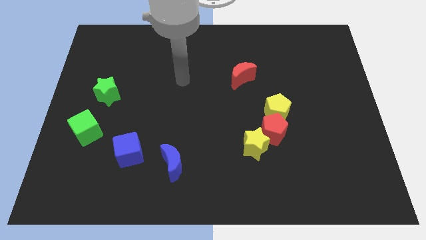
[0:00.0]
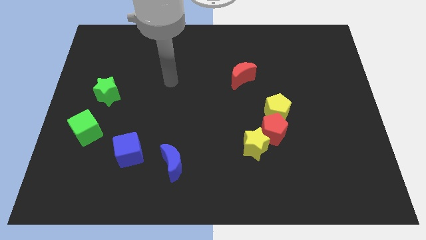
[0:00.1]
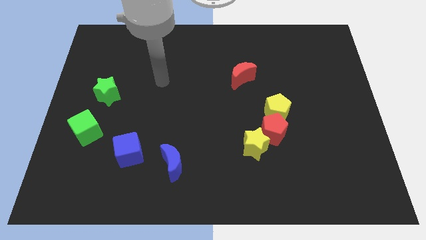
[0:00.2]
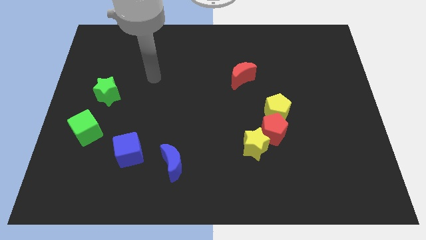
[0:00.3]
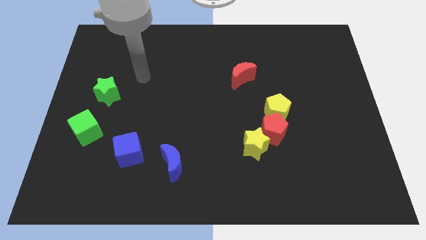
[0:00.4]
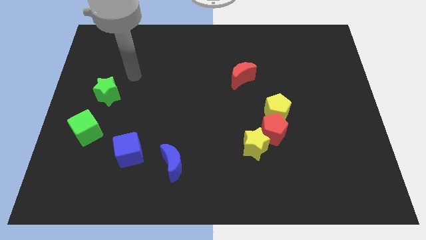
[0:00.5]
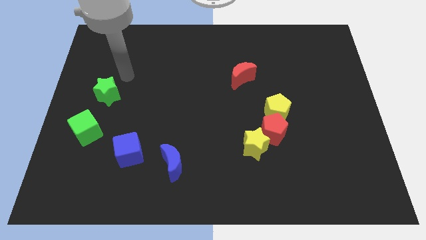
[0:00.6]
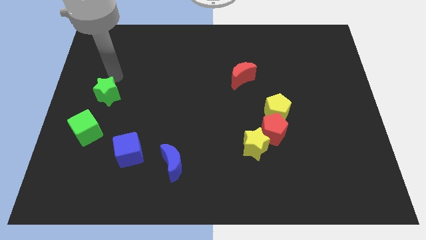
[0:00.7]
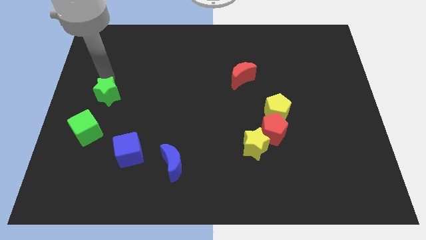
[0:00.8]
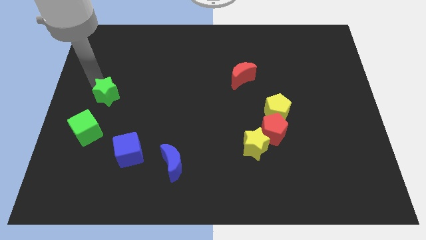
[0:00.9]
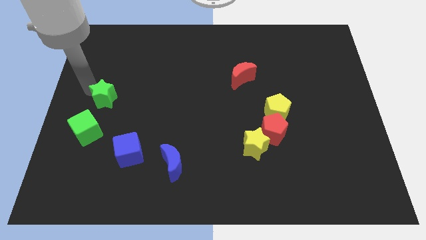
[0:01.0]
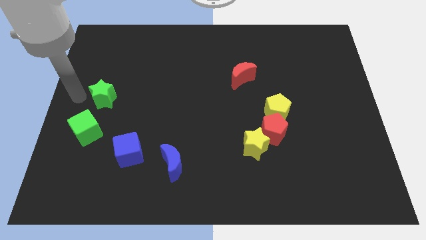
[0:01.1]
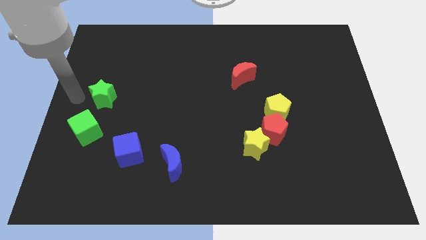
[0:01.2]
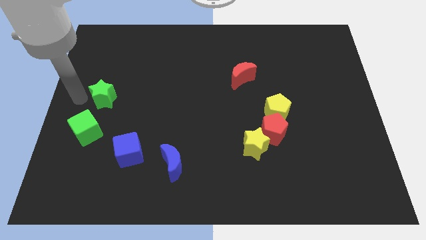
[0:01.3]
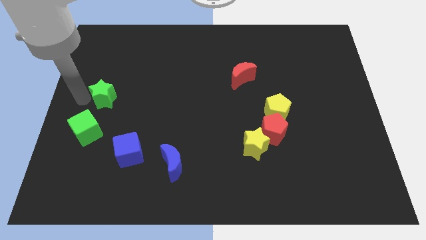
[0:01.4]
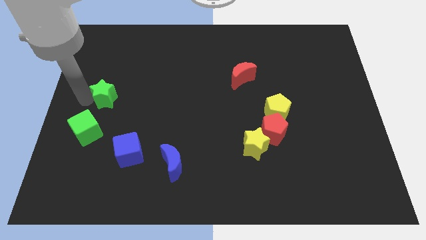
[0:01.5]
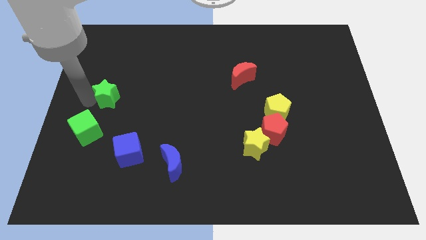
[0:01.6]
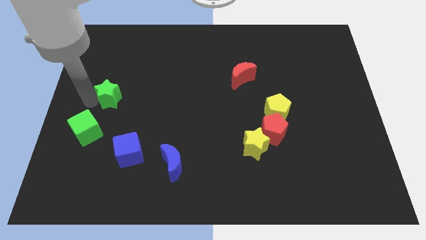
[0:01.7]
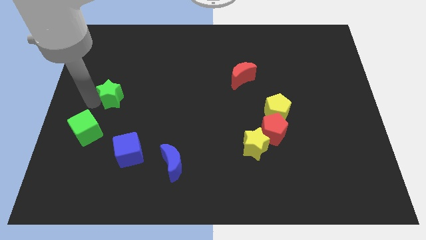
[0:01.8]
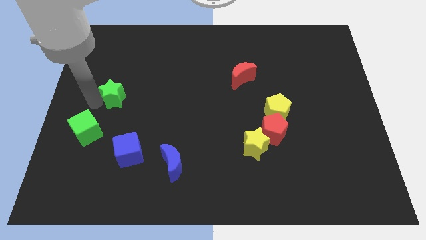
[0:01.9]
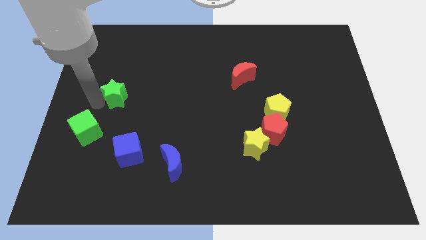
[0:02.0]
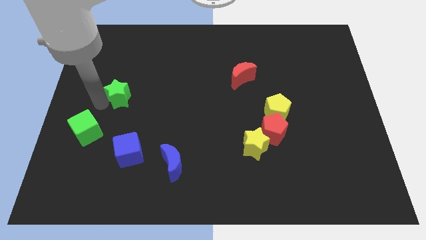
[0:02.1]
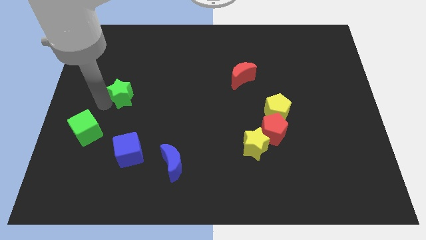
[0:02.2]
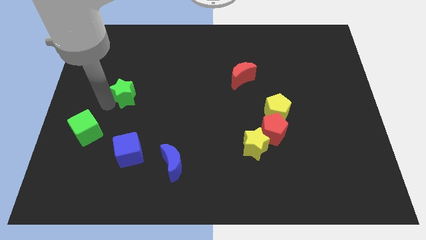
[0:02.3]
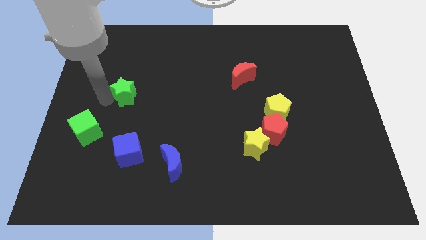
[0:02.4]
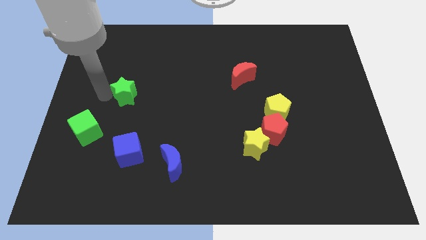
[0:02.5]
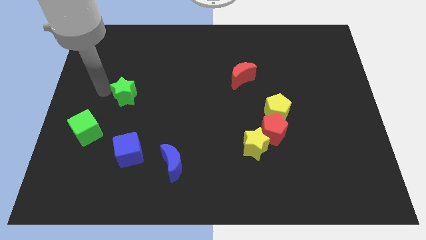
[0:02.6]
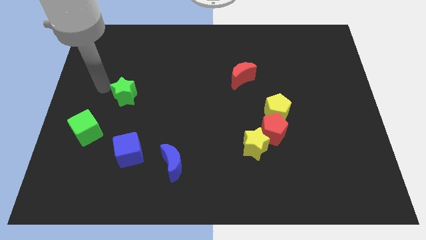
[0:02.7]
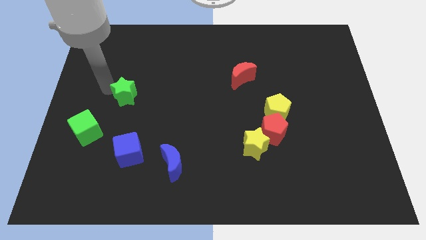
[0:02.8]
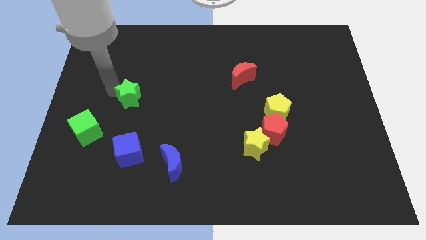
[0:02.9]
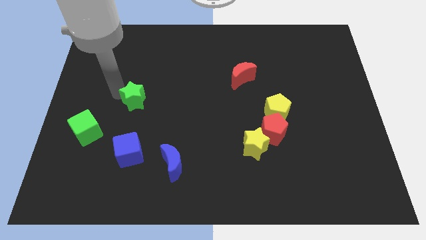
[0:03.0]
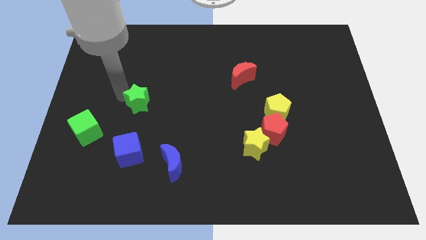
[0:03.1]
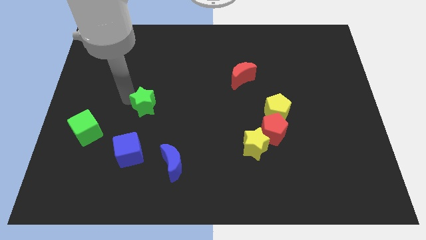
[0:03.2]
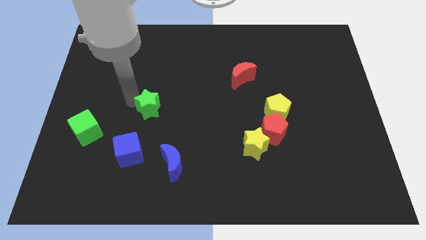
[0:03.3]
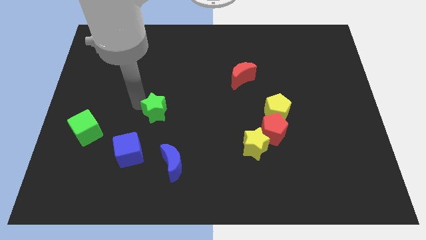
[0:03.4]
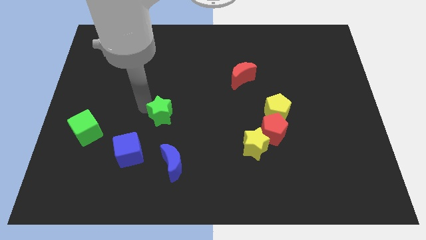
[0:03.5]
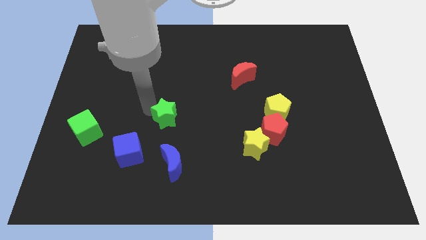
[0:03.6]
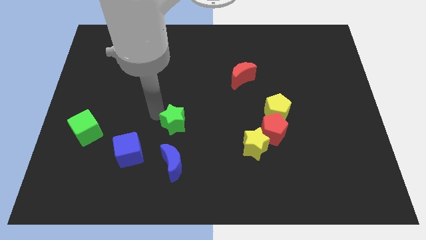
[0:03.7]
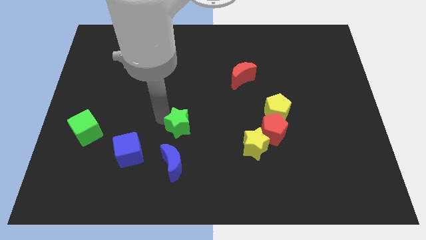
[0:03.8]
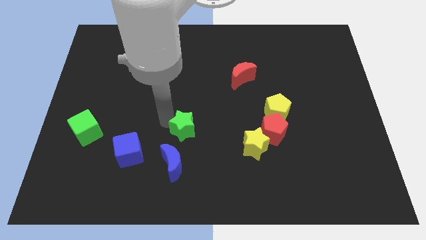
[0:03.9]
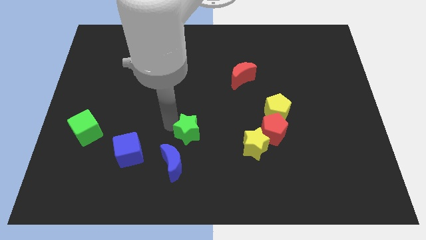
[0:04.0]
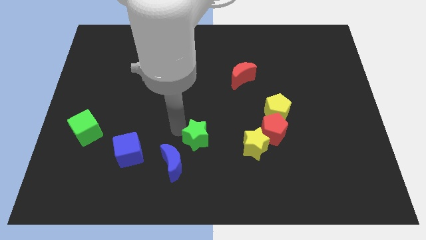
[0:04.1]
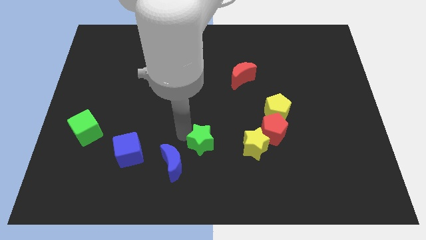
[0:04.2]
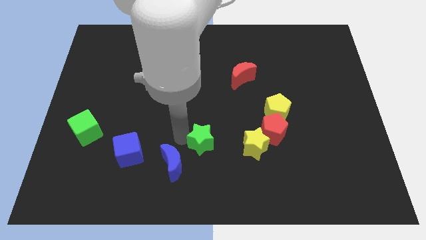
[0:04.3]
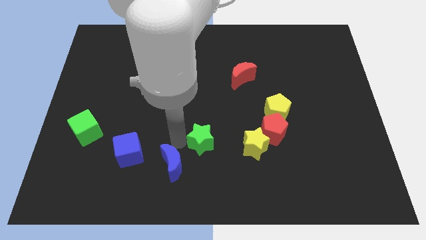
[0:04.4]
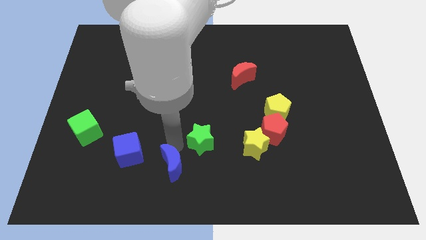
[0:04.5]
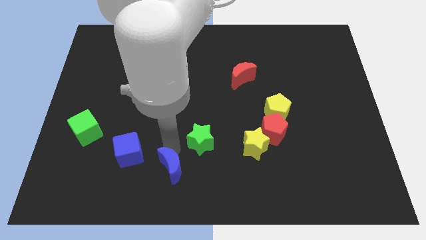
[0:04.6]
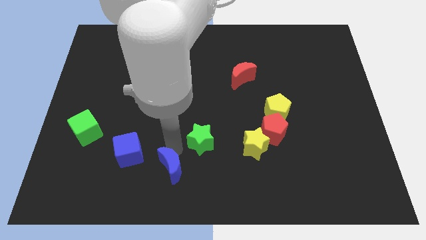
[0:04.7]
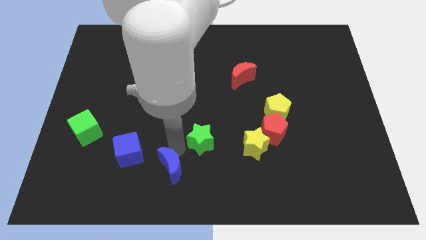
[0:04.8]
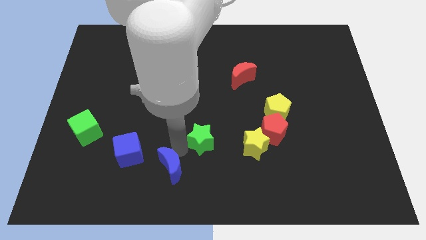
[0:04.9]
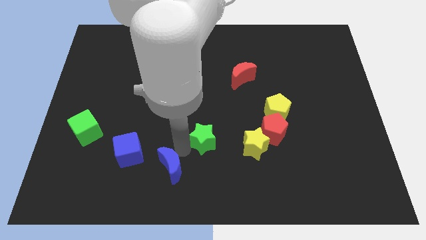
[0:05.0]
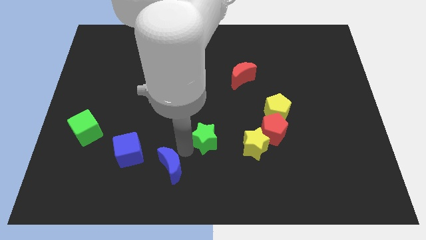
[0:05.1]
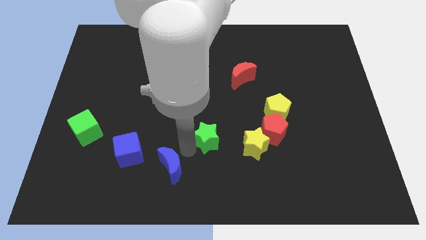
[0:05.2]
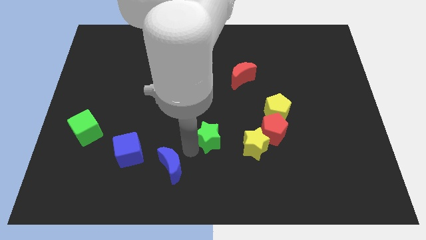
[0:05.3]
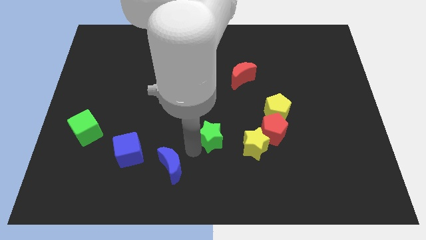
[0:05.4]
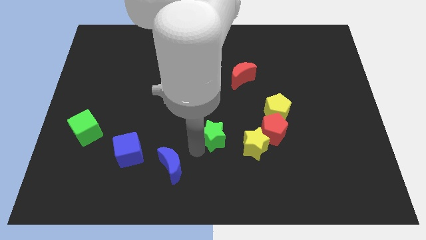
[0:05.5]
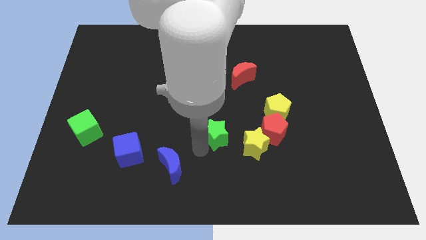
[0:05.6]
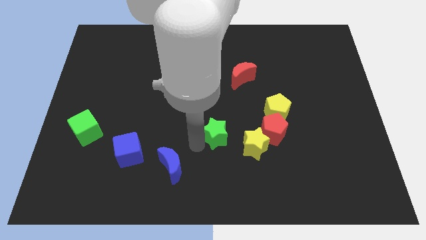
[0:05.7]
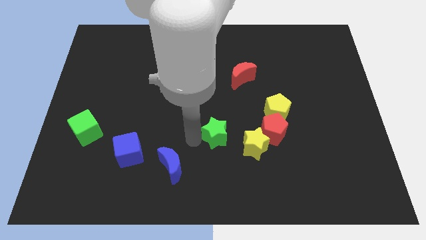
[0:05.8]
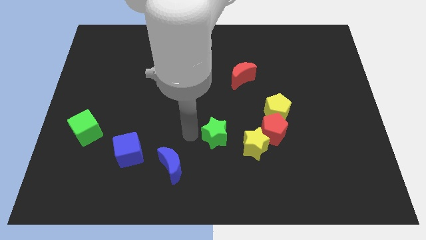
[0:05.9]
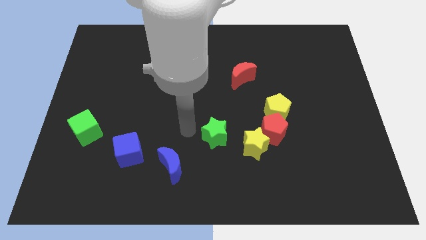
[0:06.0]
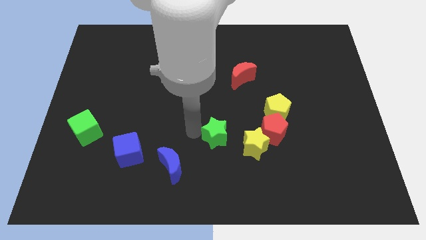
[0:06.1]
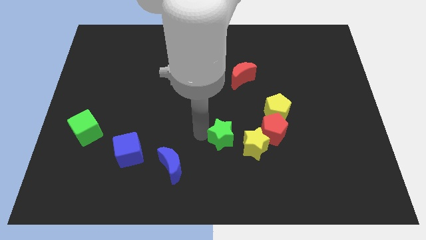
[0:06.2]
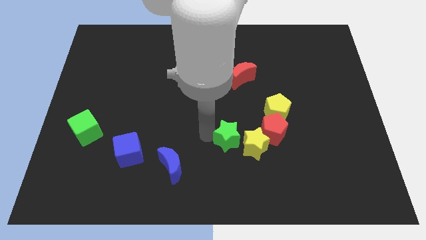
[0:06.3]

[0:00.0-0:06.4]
move the green star close to the yellow star

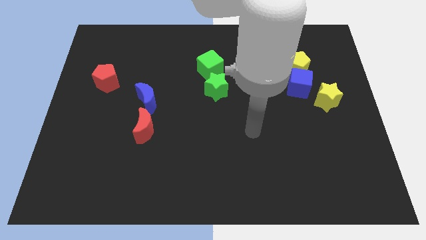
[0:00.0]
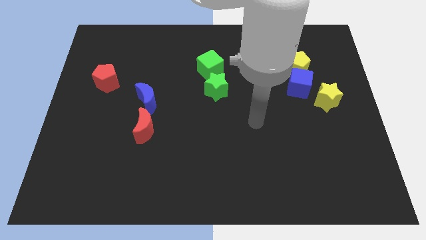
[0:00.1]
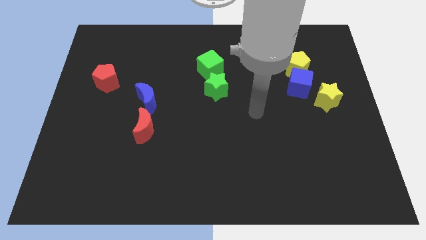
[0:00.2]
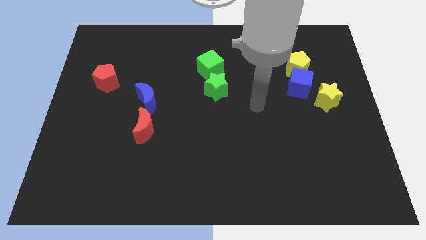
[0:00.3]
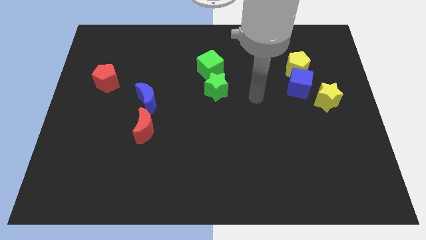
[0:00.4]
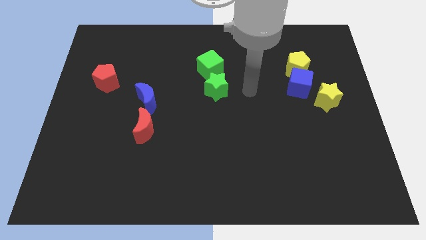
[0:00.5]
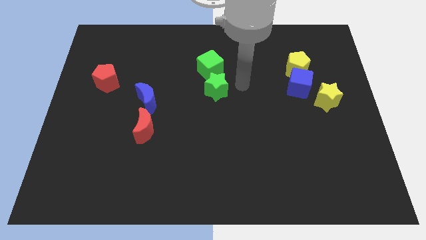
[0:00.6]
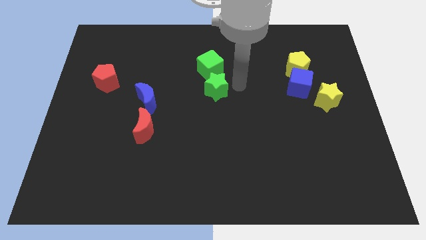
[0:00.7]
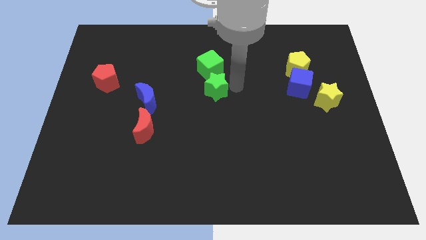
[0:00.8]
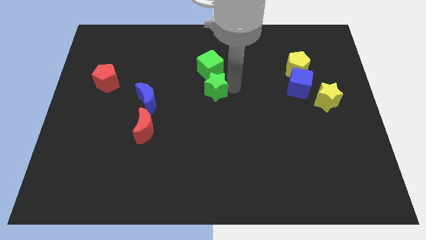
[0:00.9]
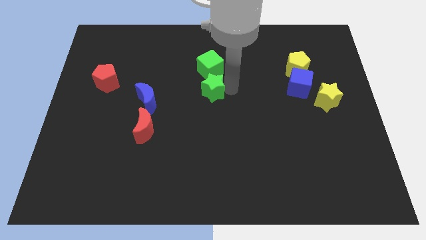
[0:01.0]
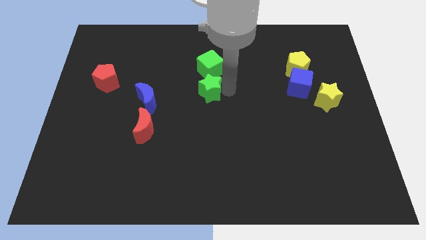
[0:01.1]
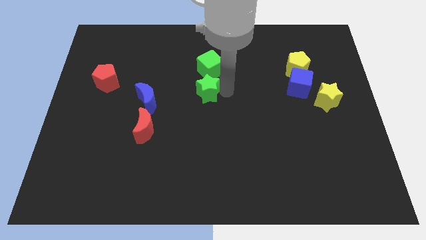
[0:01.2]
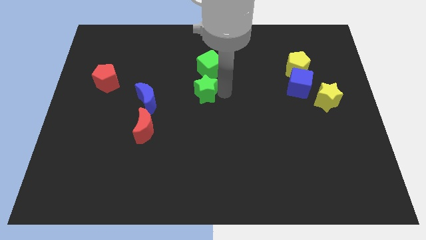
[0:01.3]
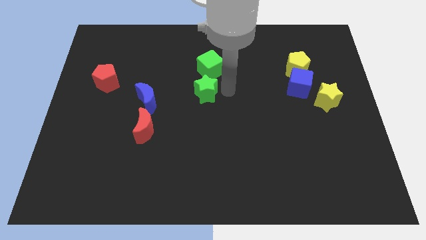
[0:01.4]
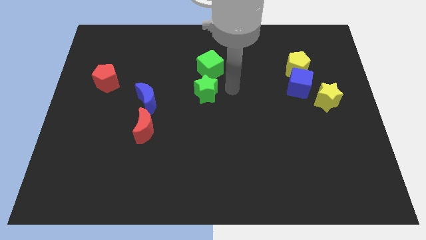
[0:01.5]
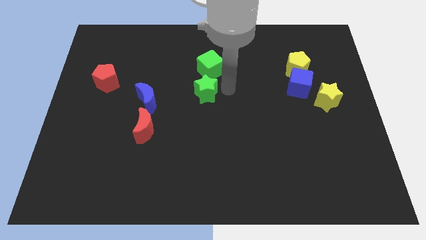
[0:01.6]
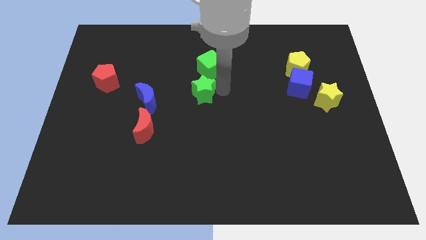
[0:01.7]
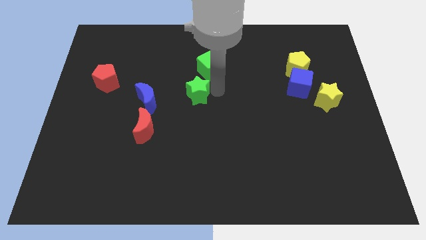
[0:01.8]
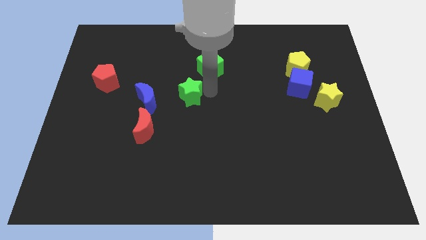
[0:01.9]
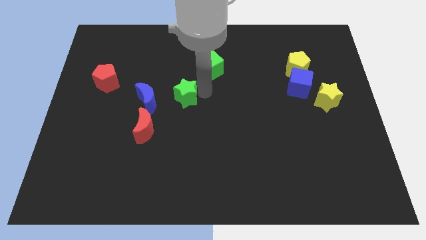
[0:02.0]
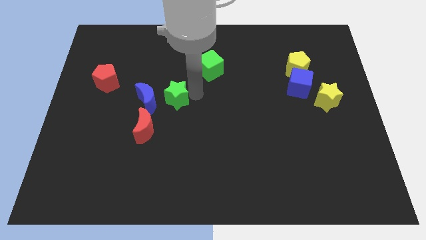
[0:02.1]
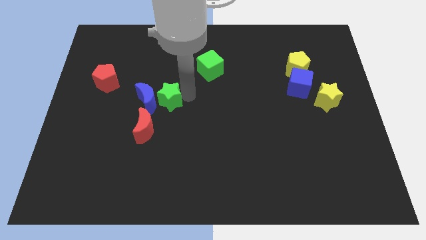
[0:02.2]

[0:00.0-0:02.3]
push the green star close to the blue moon
